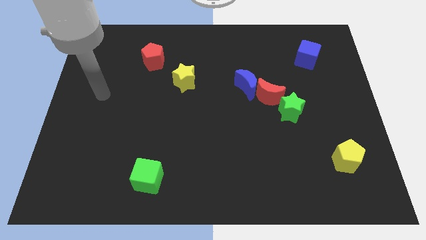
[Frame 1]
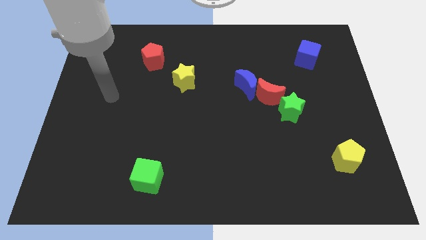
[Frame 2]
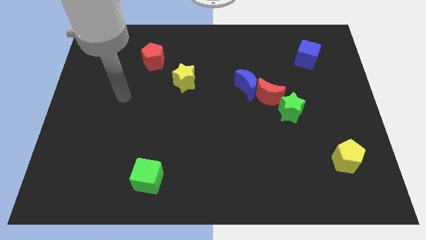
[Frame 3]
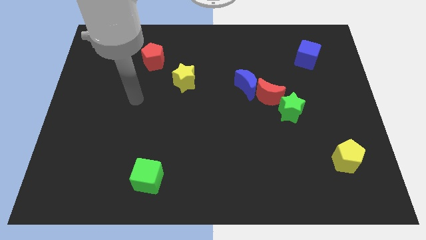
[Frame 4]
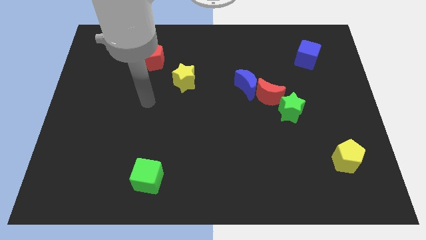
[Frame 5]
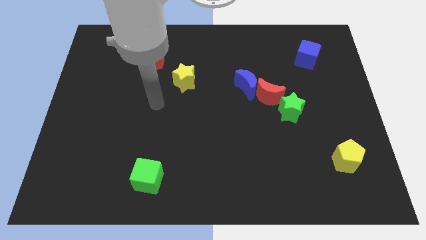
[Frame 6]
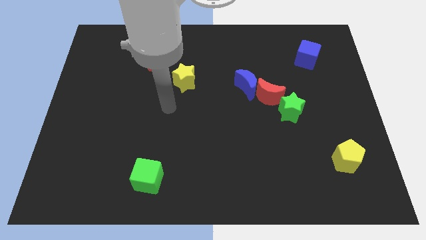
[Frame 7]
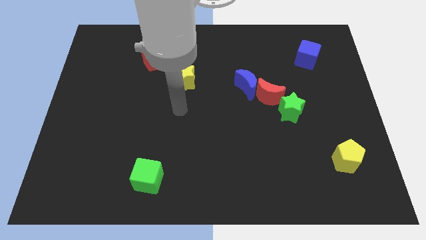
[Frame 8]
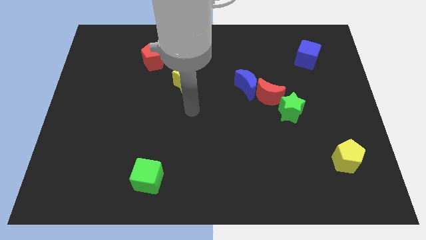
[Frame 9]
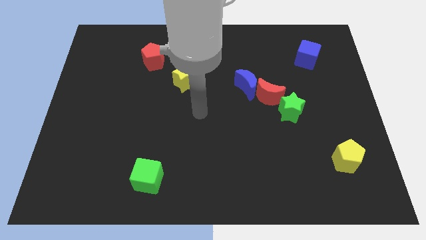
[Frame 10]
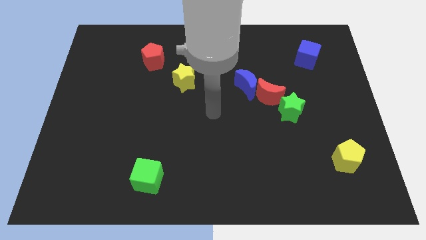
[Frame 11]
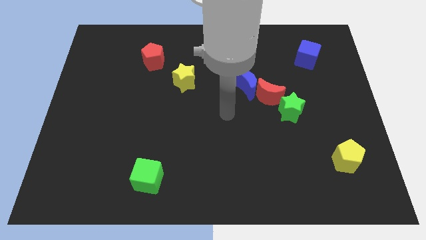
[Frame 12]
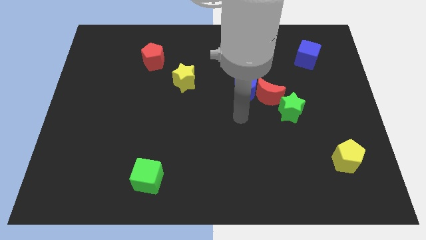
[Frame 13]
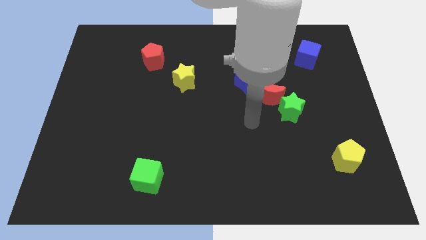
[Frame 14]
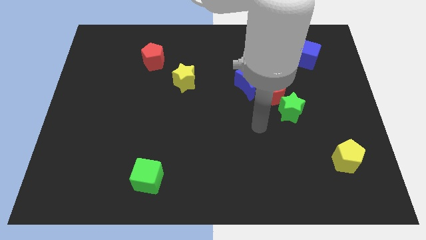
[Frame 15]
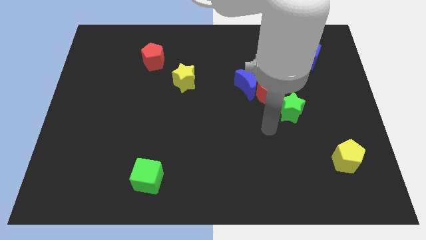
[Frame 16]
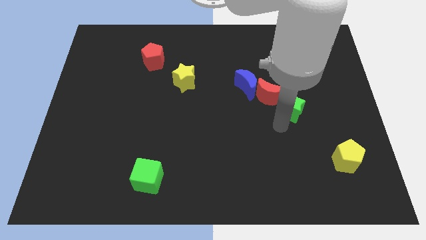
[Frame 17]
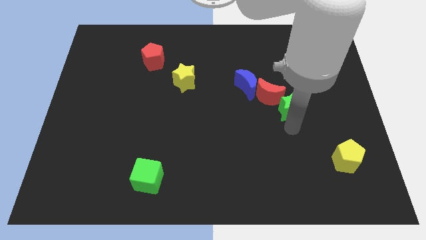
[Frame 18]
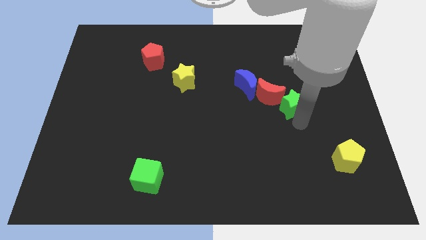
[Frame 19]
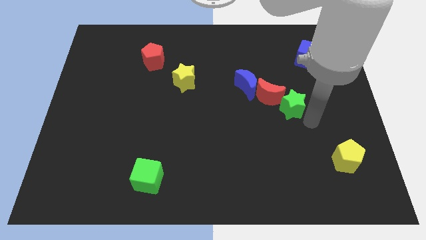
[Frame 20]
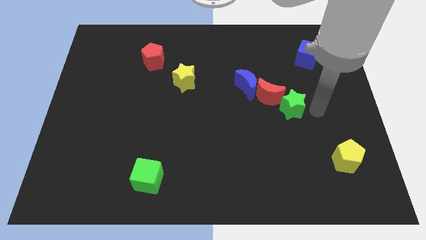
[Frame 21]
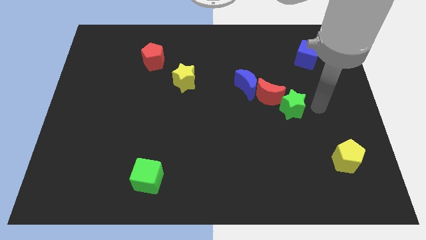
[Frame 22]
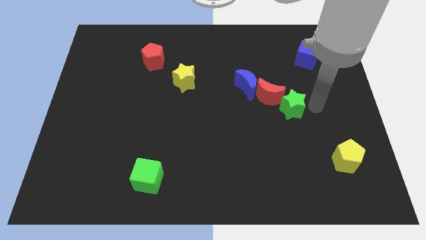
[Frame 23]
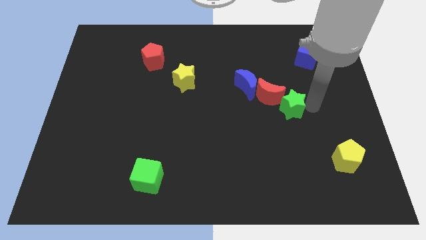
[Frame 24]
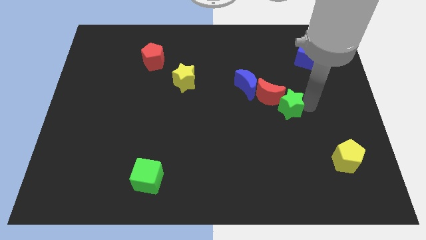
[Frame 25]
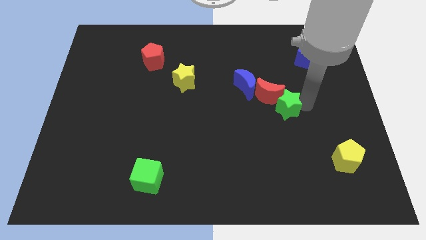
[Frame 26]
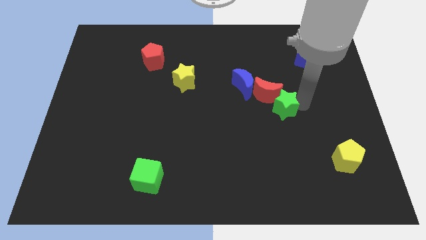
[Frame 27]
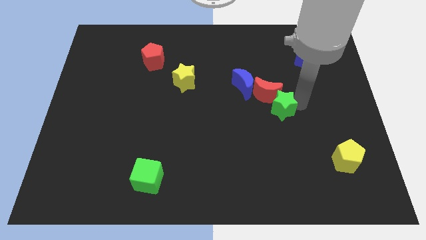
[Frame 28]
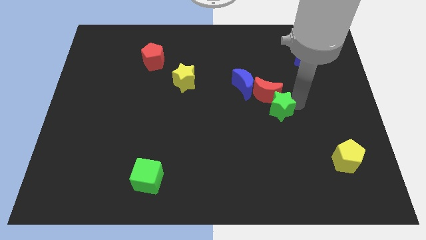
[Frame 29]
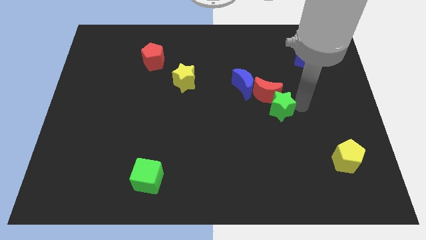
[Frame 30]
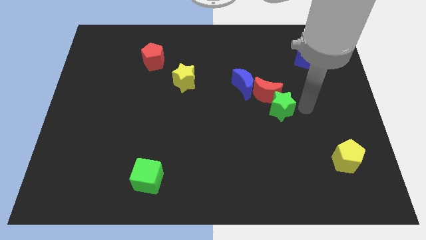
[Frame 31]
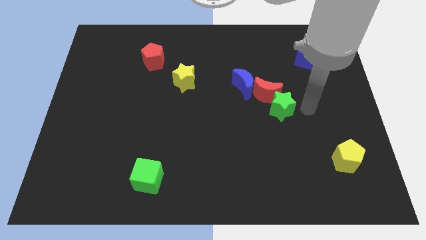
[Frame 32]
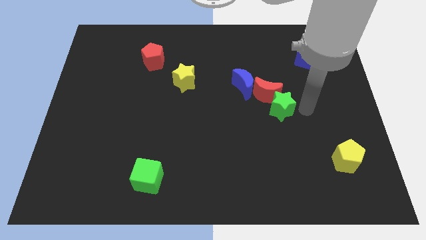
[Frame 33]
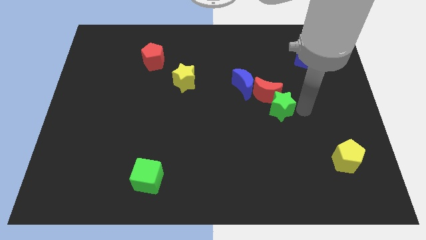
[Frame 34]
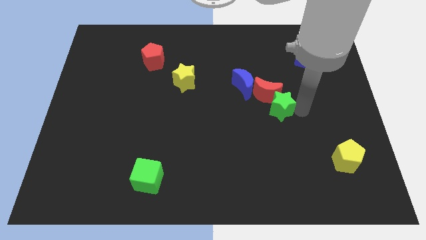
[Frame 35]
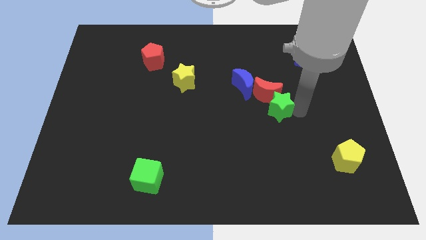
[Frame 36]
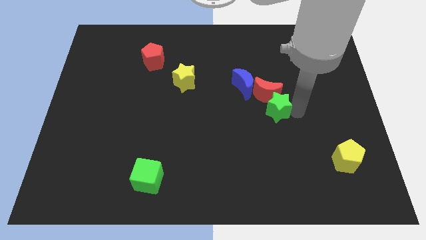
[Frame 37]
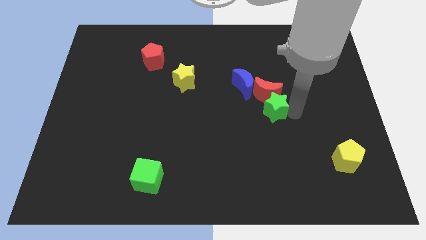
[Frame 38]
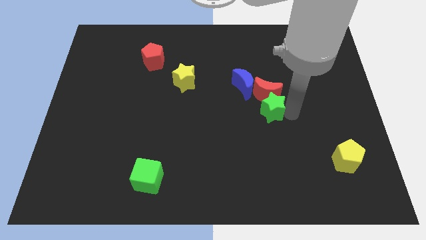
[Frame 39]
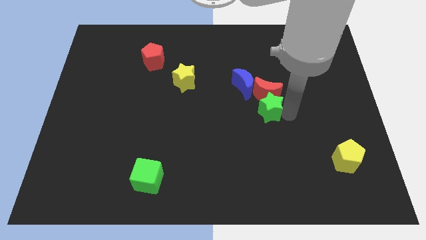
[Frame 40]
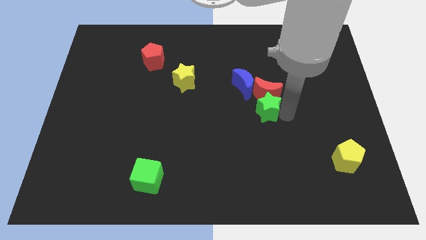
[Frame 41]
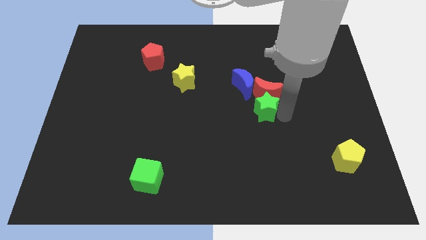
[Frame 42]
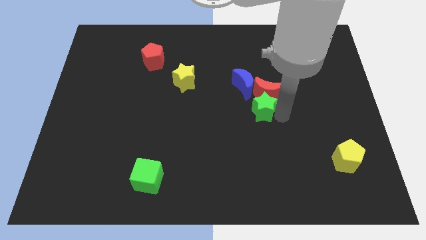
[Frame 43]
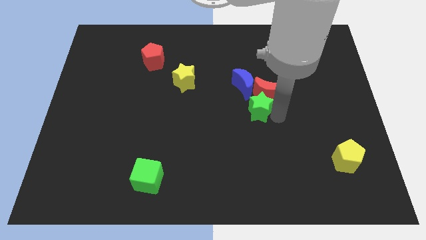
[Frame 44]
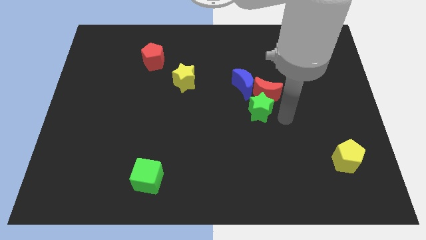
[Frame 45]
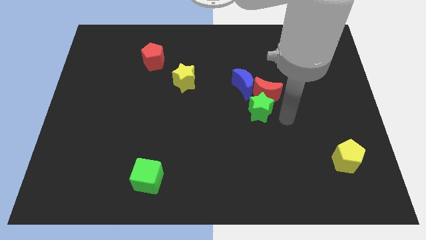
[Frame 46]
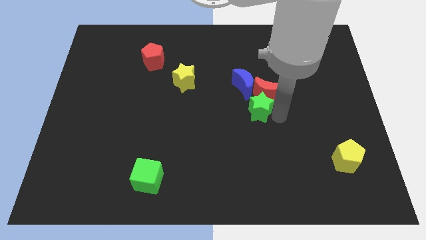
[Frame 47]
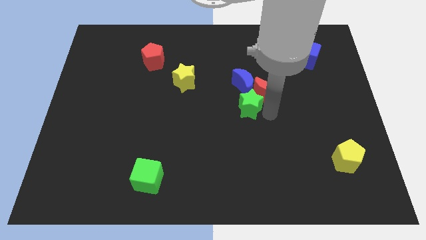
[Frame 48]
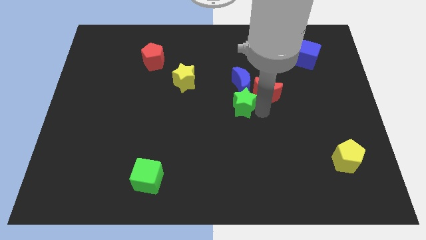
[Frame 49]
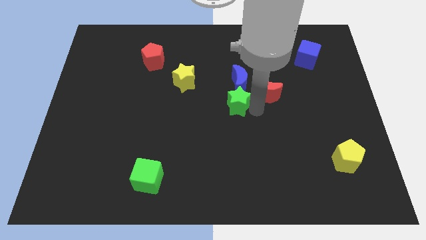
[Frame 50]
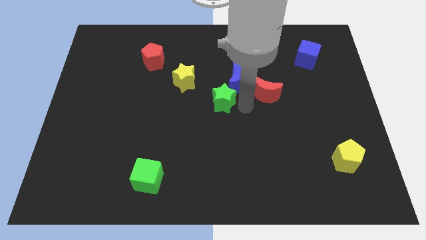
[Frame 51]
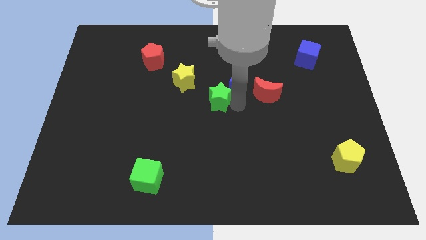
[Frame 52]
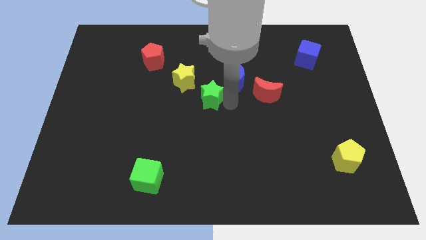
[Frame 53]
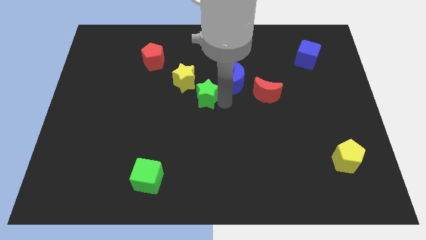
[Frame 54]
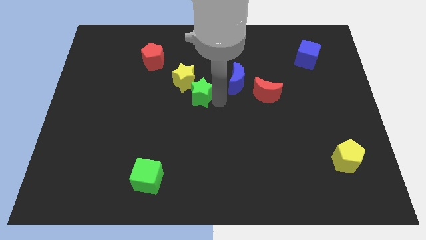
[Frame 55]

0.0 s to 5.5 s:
push the green star to the yellow star

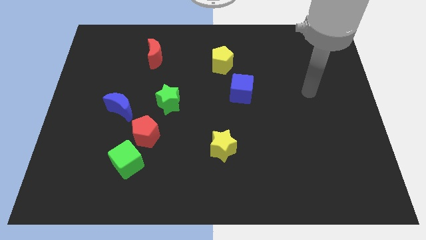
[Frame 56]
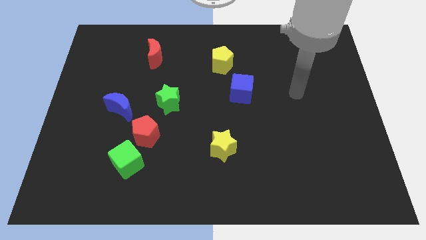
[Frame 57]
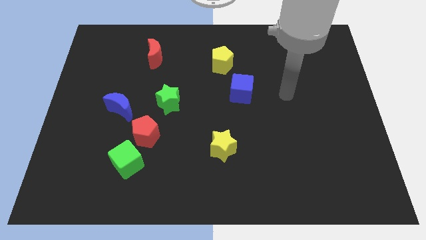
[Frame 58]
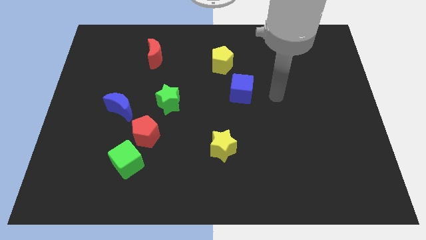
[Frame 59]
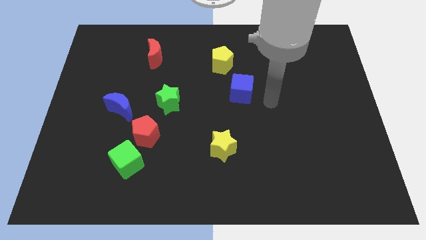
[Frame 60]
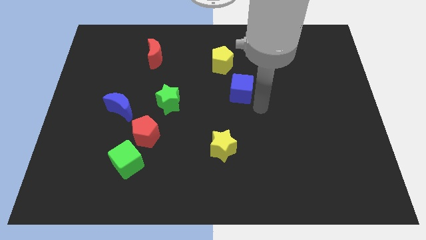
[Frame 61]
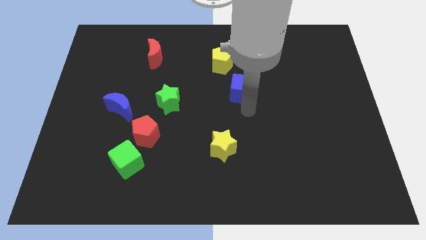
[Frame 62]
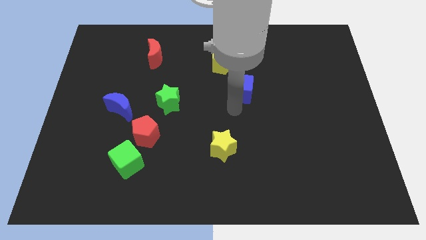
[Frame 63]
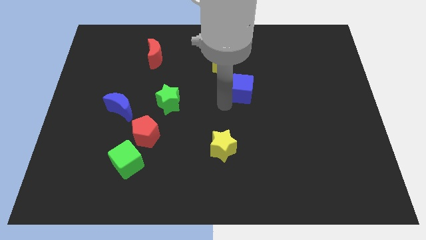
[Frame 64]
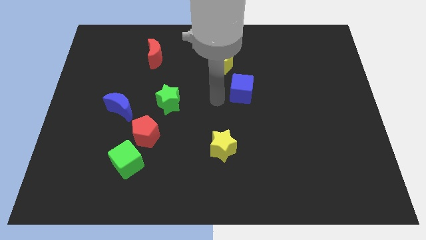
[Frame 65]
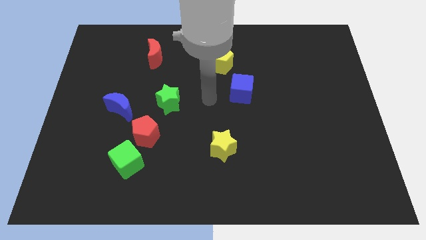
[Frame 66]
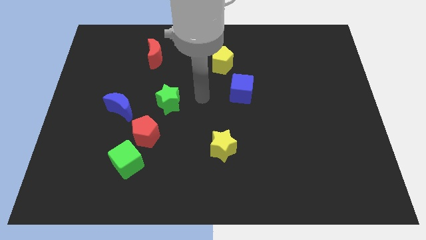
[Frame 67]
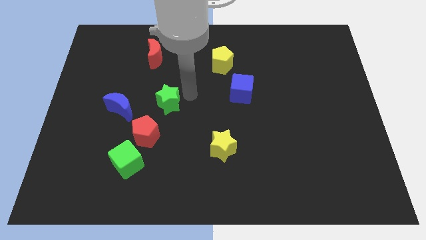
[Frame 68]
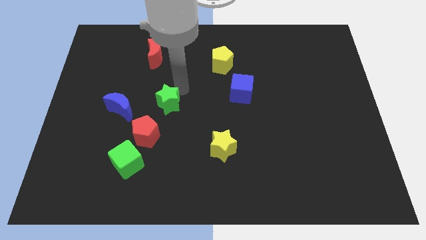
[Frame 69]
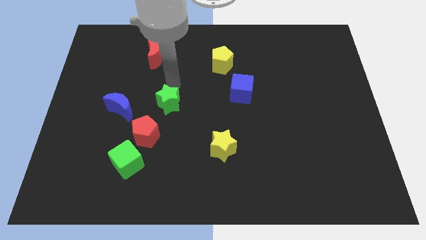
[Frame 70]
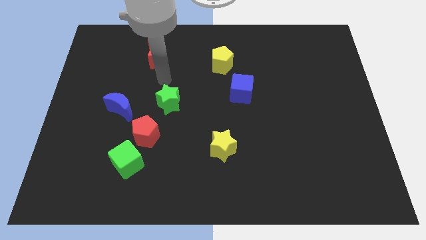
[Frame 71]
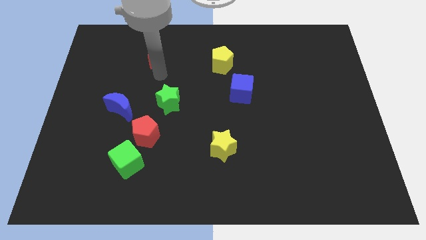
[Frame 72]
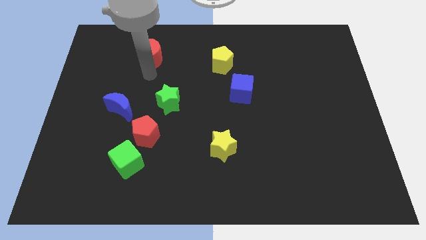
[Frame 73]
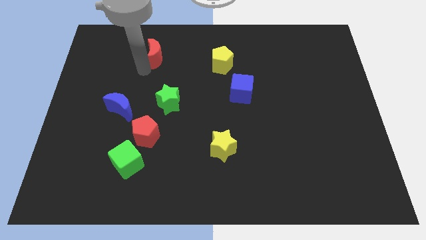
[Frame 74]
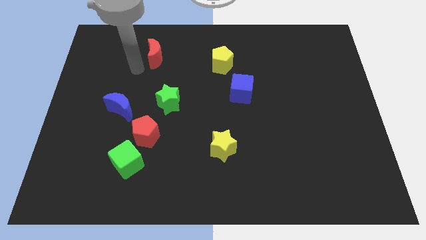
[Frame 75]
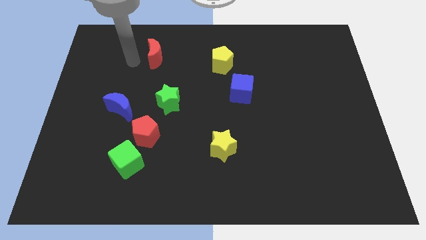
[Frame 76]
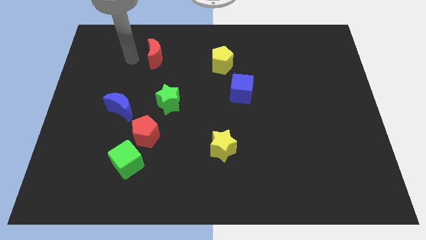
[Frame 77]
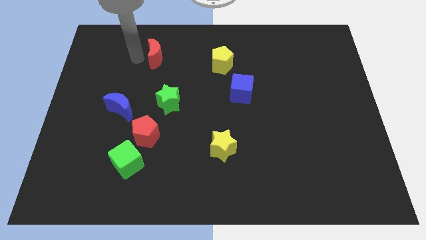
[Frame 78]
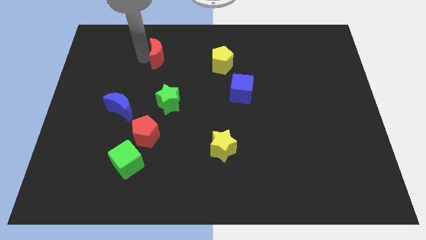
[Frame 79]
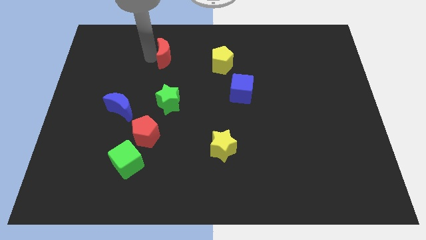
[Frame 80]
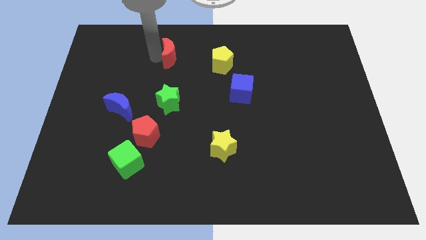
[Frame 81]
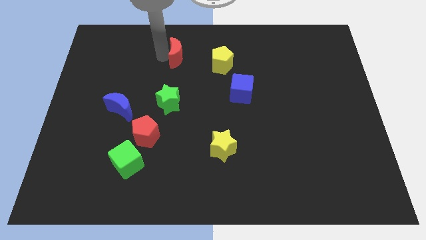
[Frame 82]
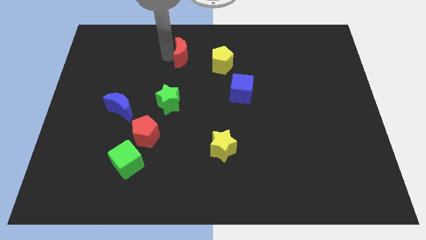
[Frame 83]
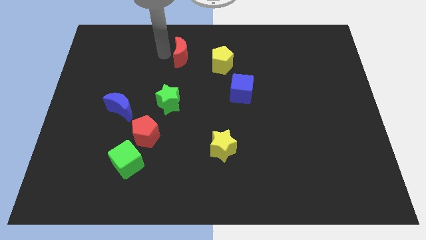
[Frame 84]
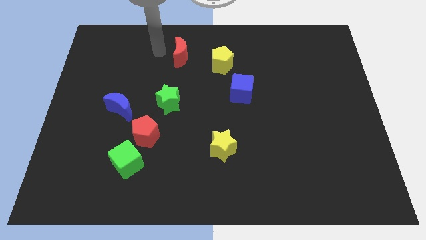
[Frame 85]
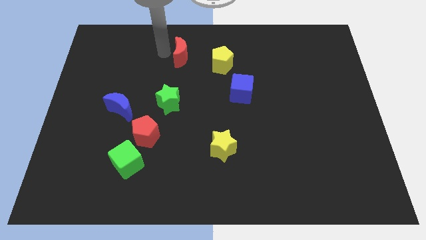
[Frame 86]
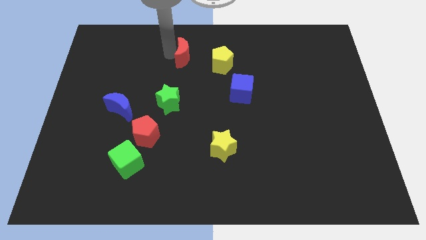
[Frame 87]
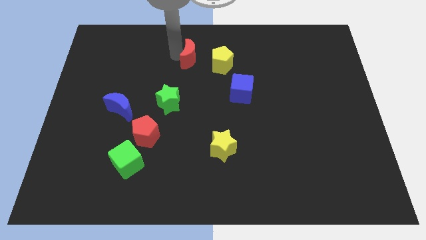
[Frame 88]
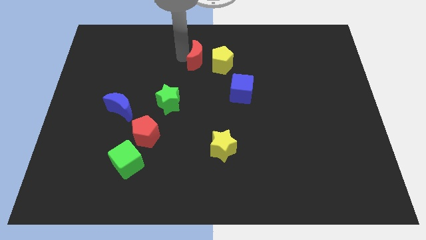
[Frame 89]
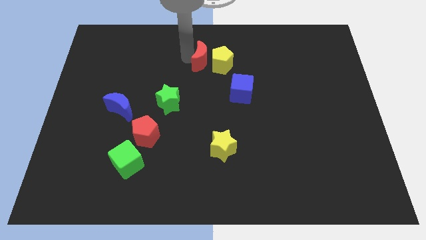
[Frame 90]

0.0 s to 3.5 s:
slide the red moon close to the yellow pentagon
